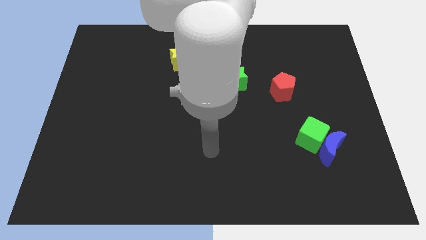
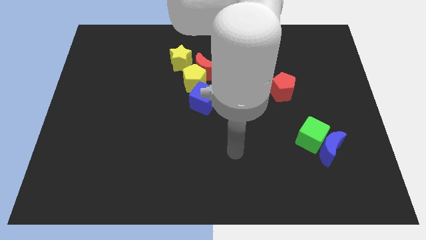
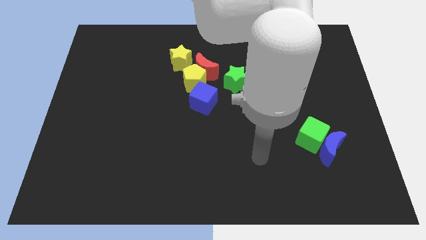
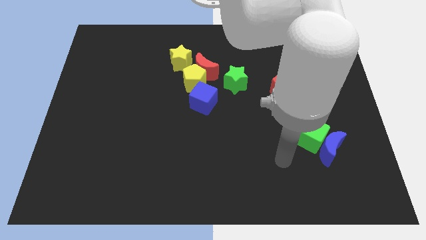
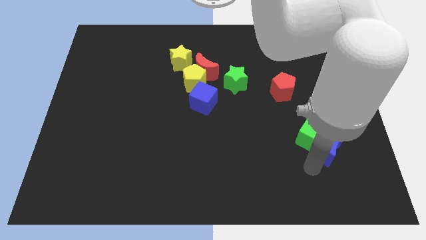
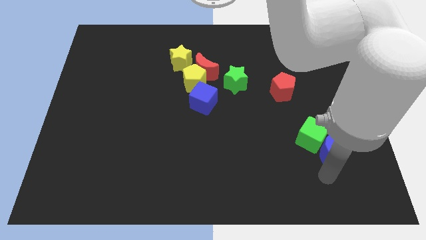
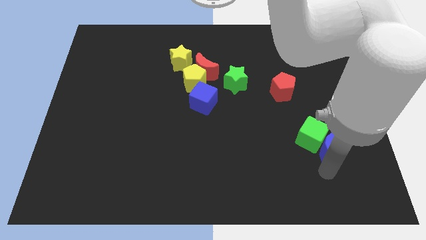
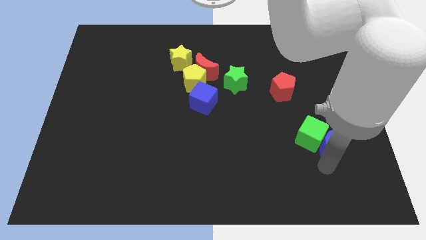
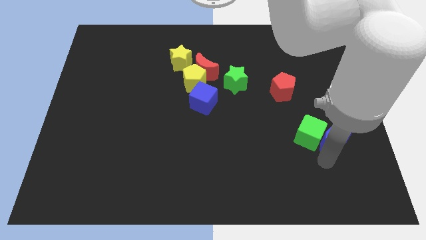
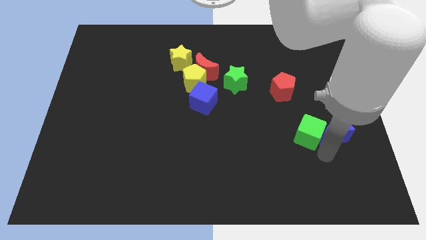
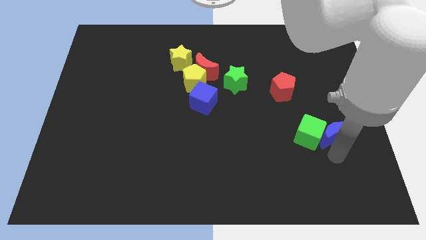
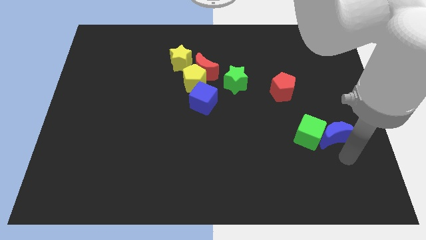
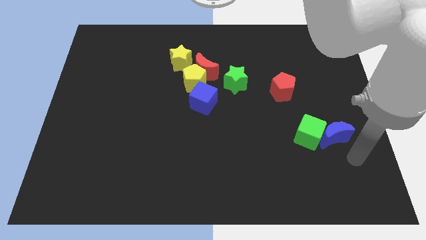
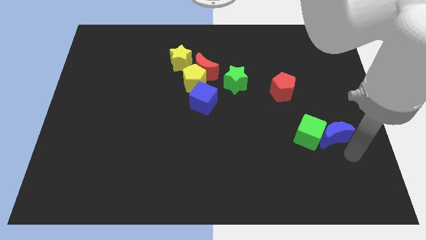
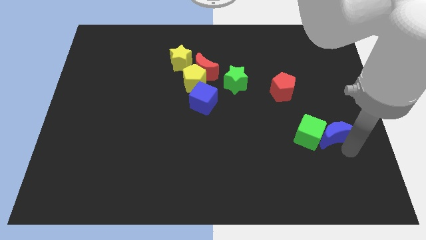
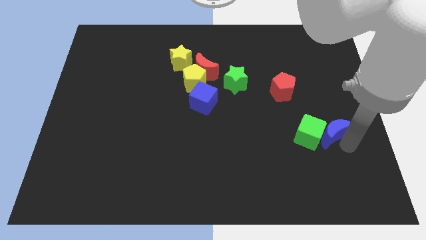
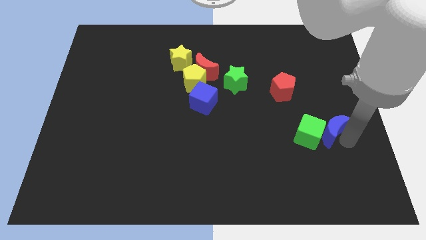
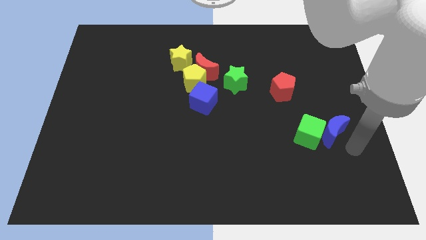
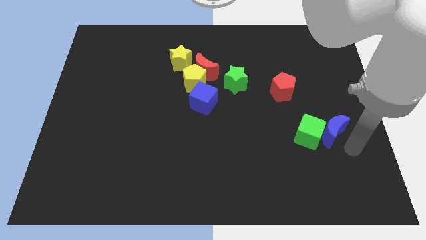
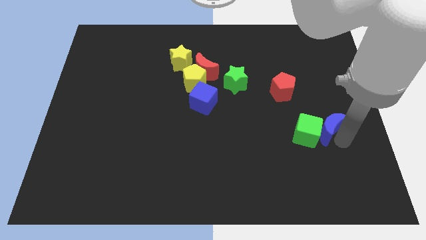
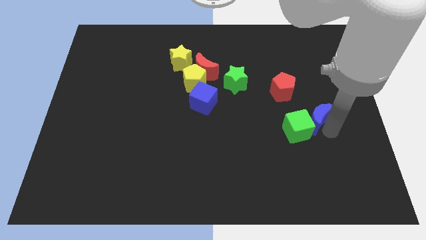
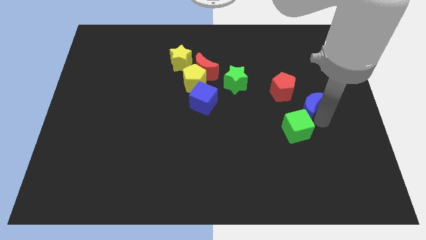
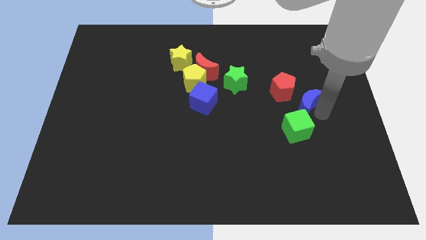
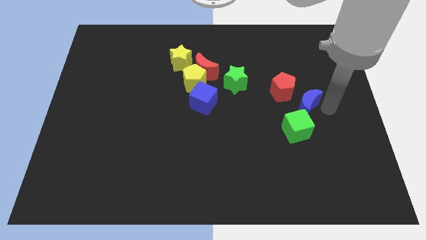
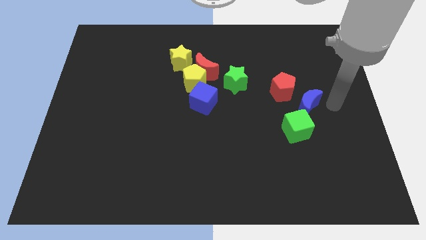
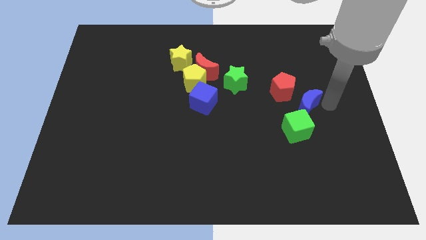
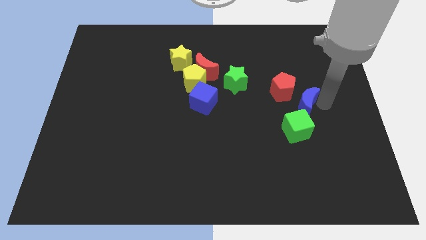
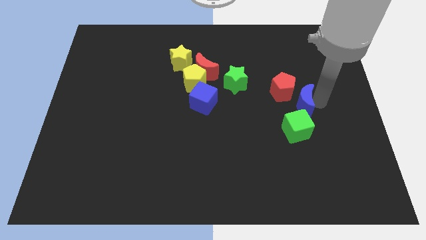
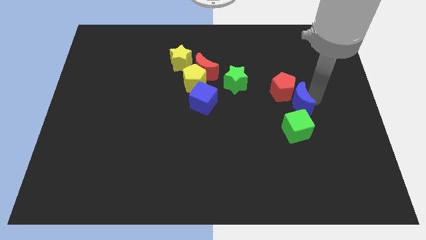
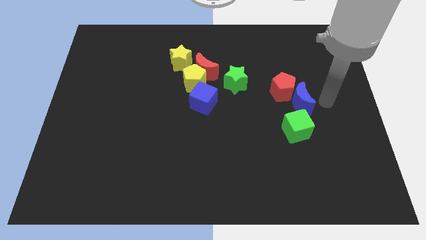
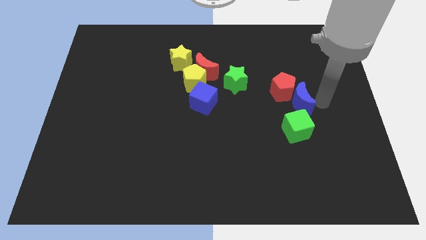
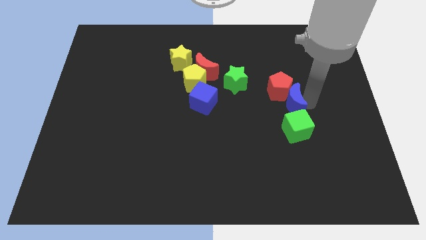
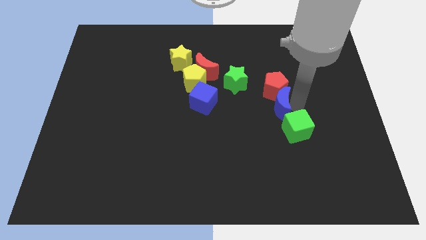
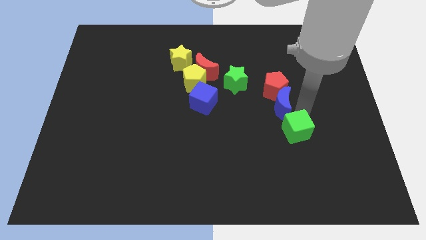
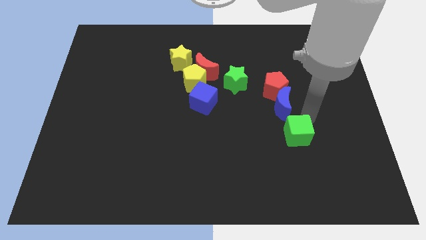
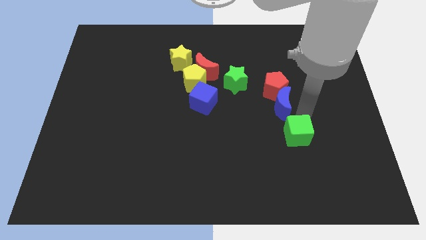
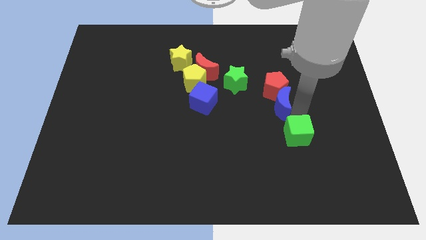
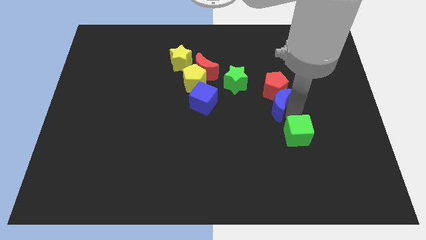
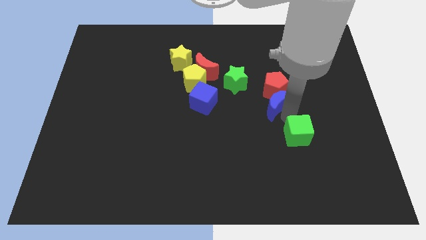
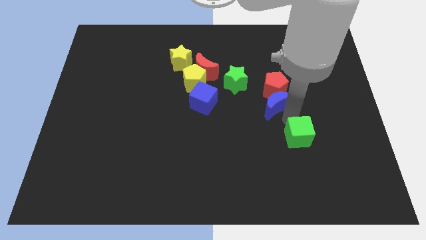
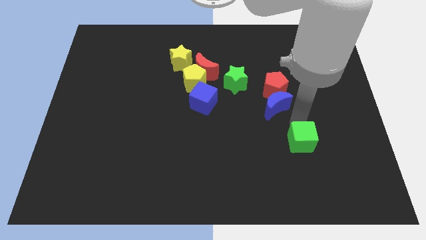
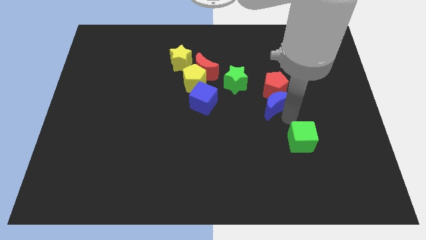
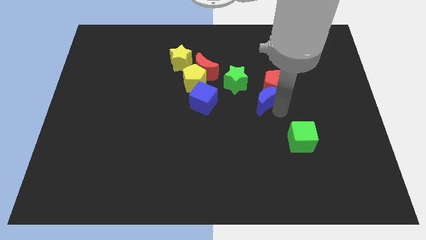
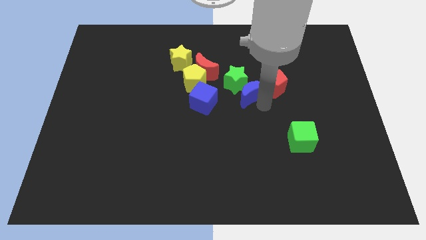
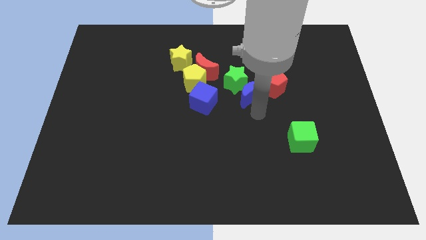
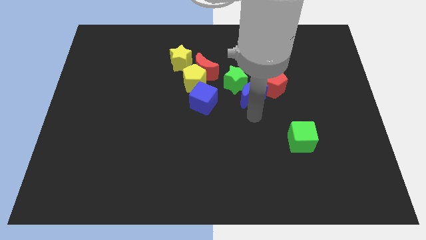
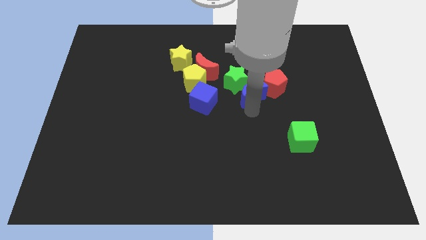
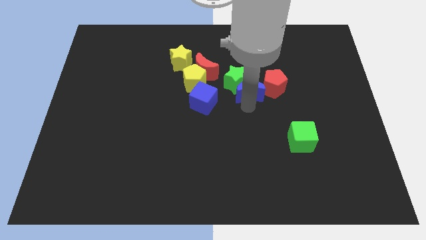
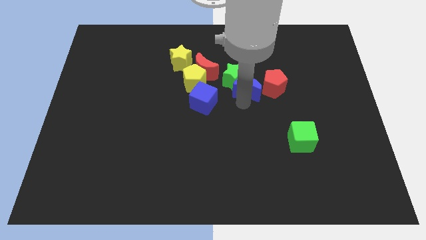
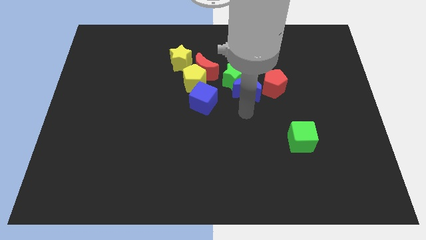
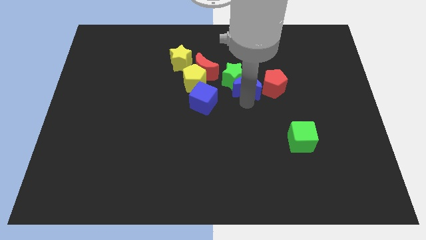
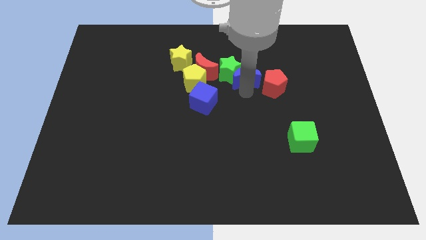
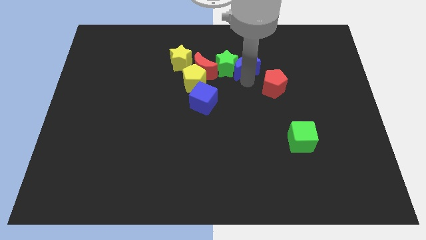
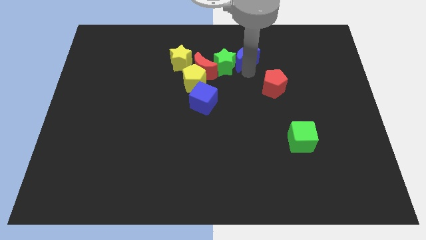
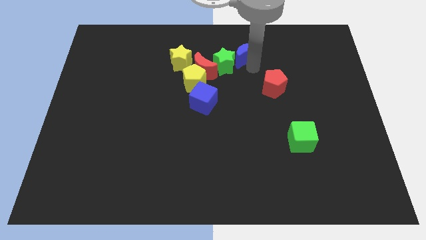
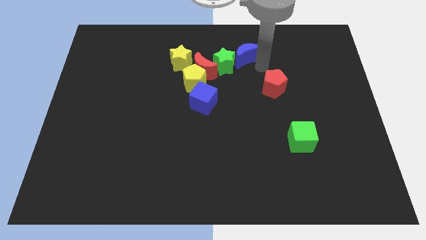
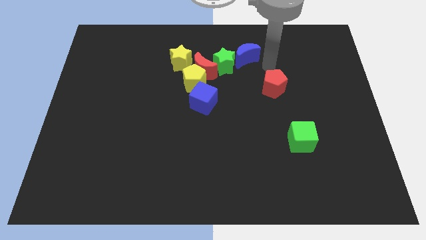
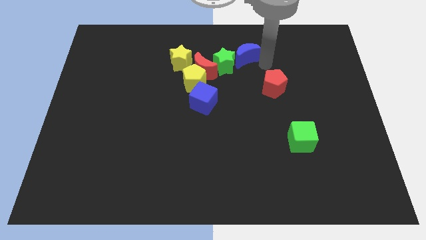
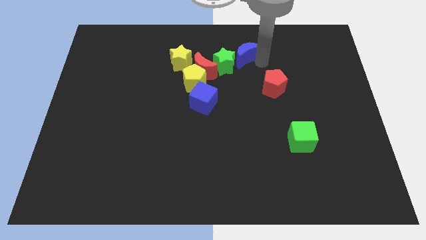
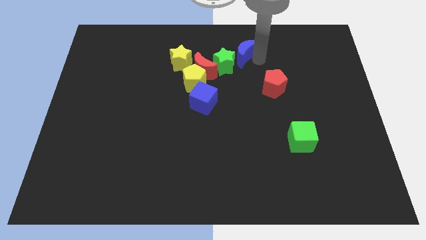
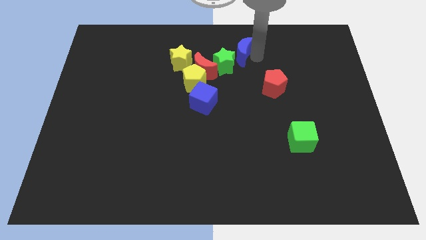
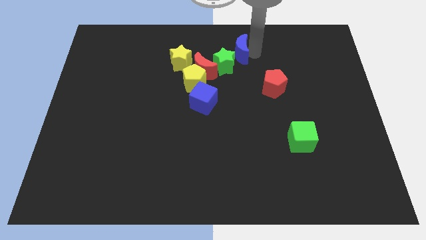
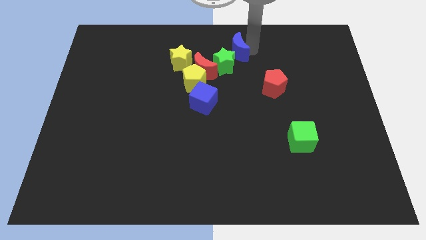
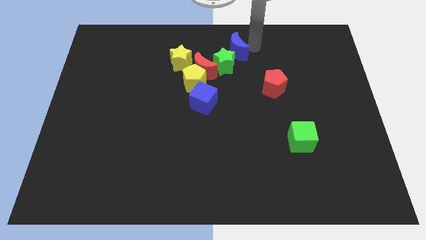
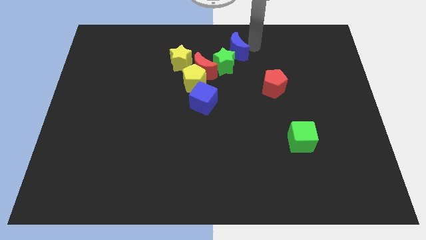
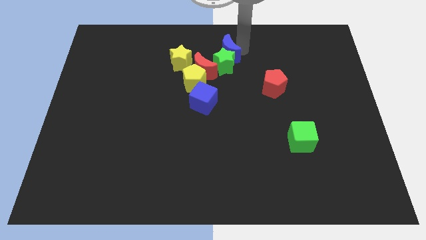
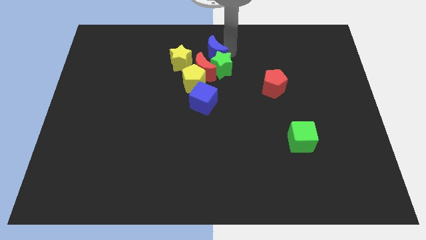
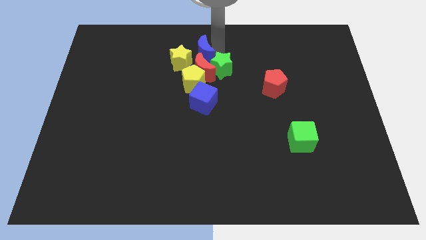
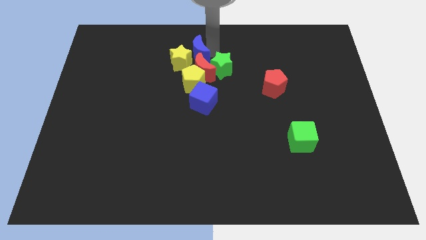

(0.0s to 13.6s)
slide the blue moon next to the yellow star
